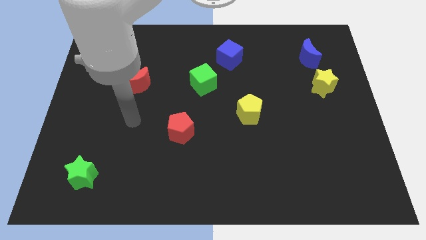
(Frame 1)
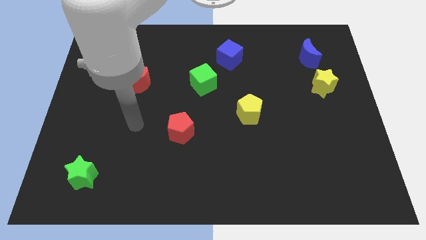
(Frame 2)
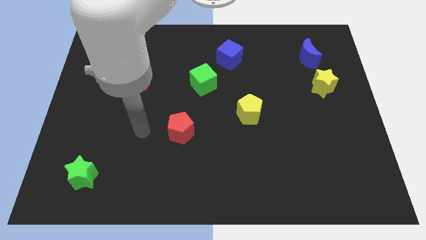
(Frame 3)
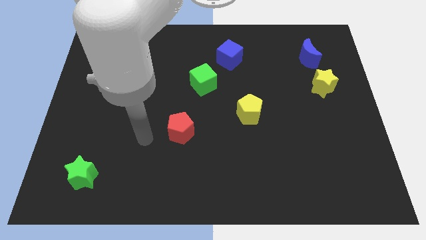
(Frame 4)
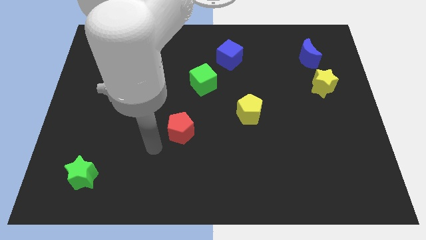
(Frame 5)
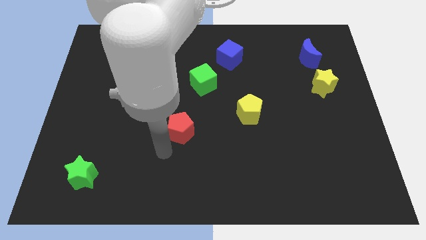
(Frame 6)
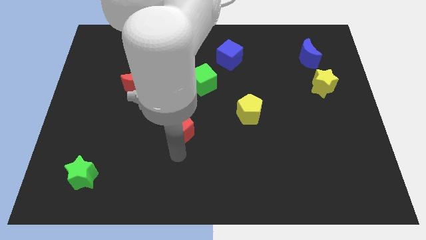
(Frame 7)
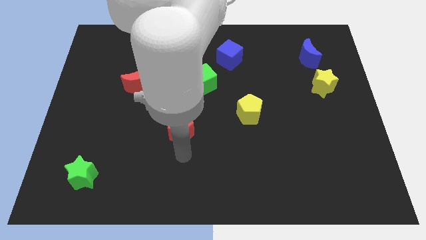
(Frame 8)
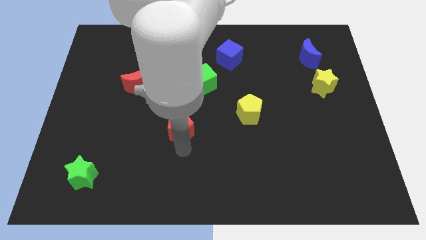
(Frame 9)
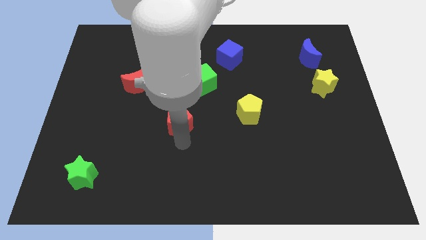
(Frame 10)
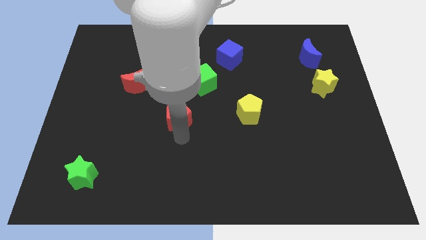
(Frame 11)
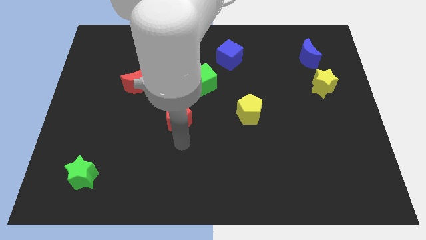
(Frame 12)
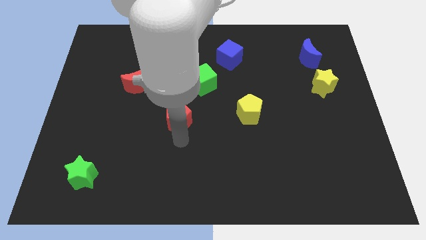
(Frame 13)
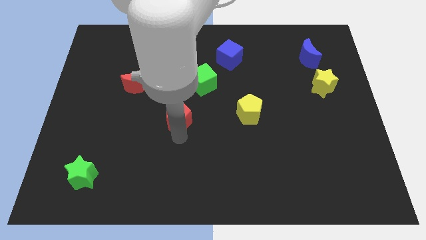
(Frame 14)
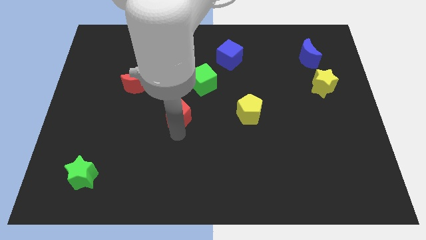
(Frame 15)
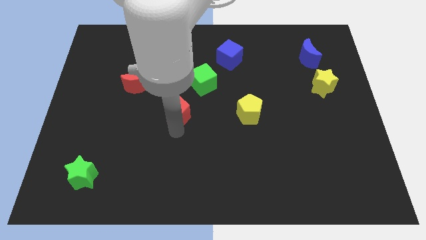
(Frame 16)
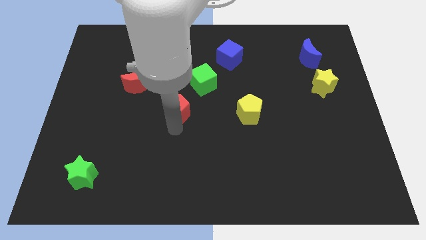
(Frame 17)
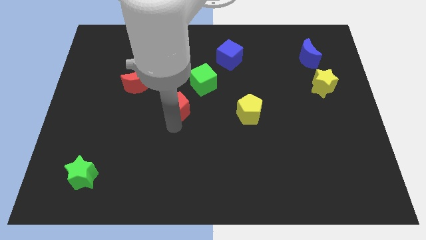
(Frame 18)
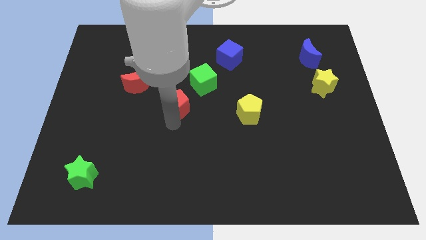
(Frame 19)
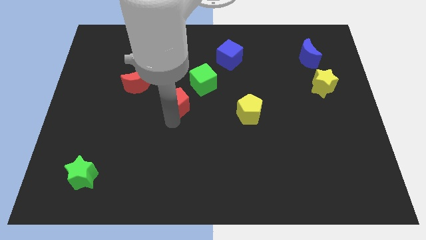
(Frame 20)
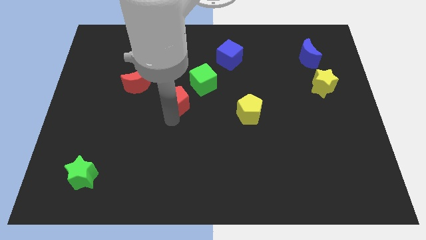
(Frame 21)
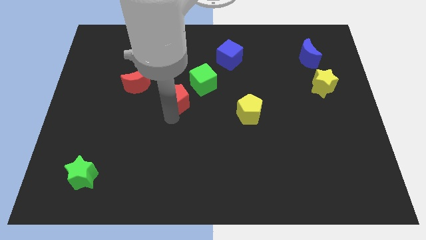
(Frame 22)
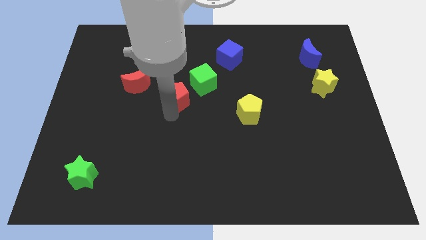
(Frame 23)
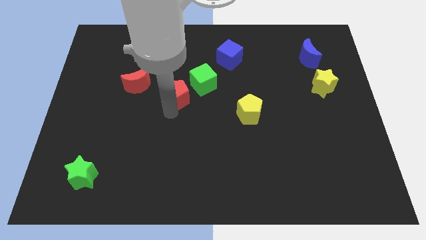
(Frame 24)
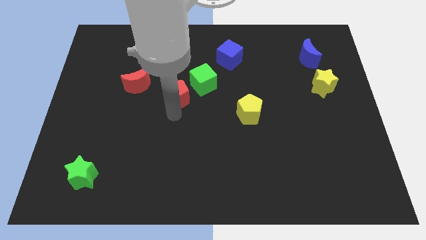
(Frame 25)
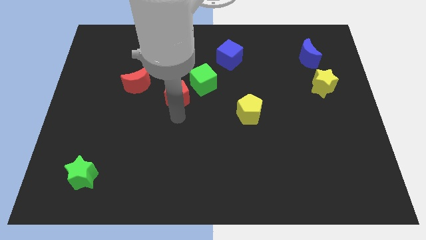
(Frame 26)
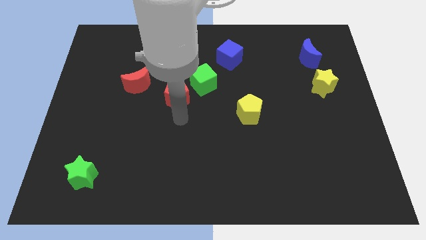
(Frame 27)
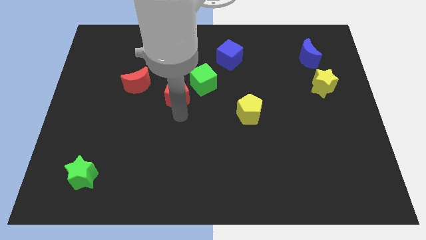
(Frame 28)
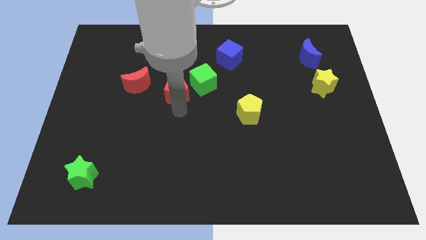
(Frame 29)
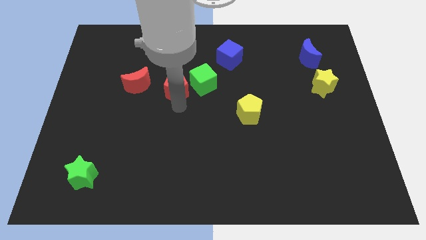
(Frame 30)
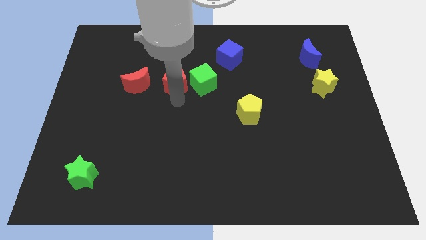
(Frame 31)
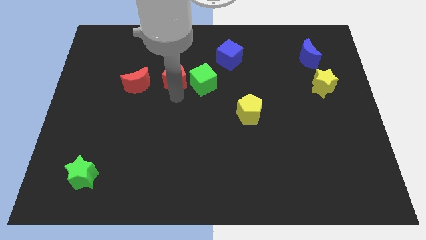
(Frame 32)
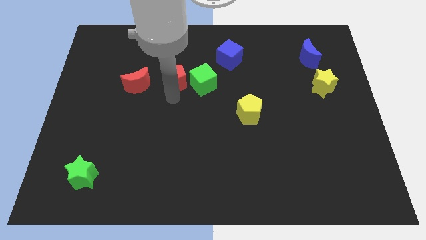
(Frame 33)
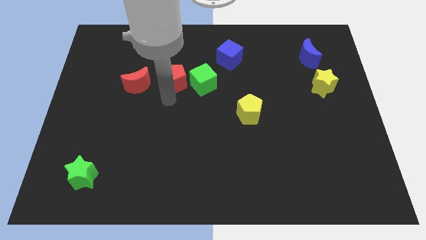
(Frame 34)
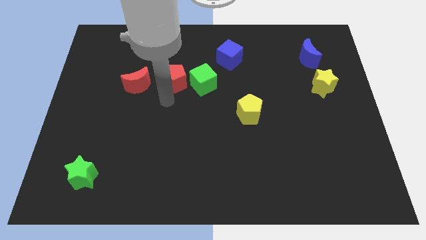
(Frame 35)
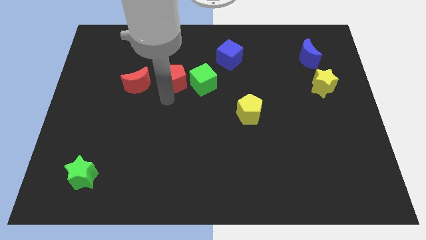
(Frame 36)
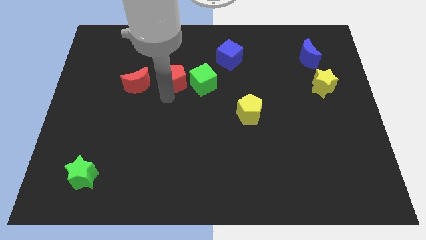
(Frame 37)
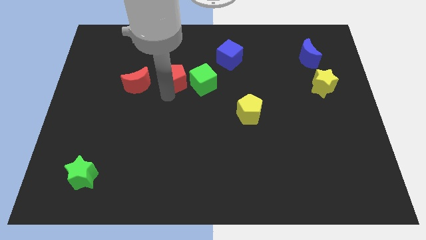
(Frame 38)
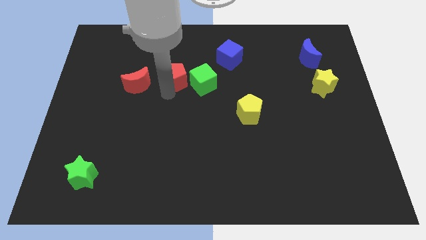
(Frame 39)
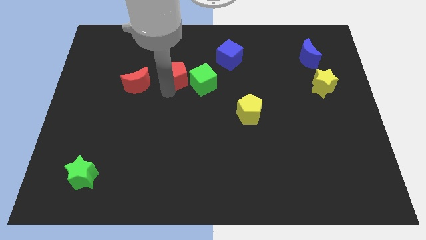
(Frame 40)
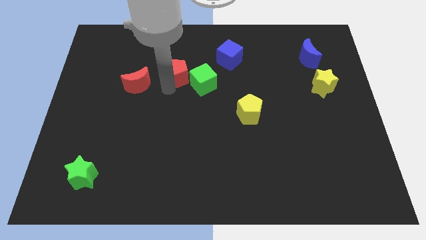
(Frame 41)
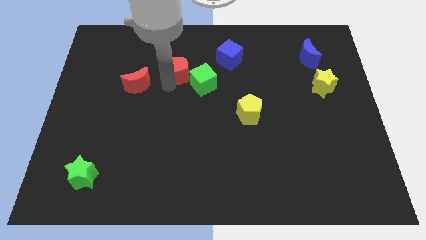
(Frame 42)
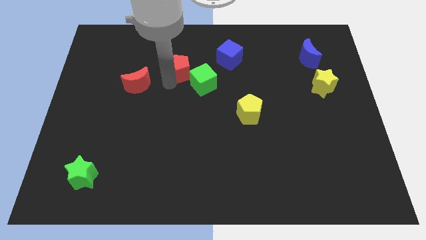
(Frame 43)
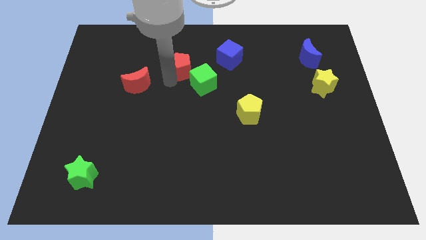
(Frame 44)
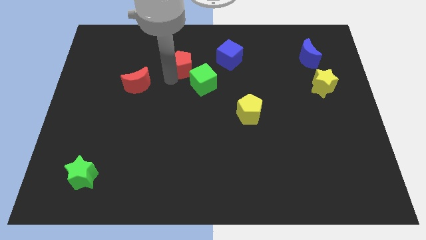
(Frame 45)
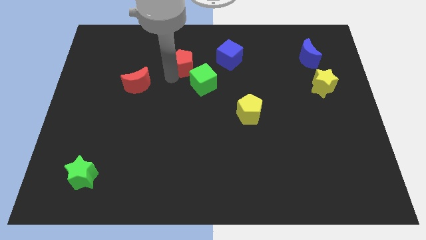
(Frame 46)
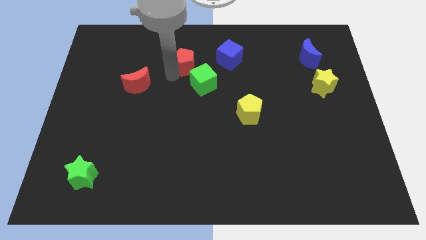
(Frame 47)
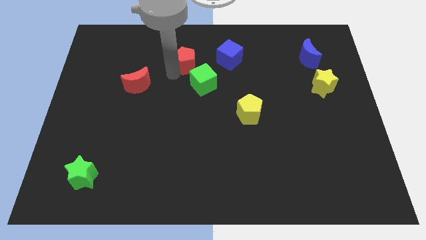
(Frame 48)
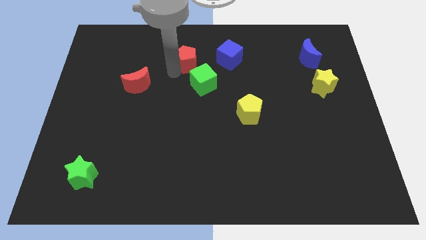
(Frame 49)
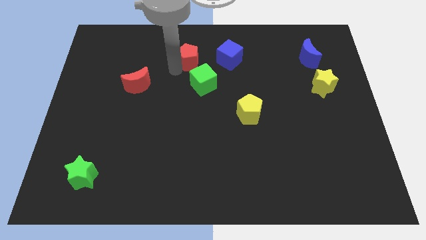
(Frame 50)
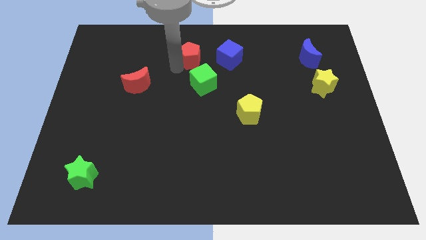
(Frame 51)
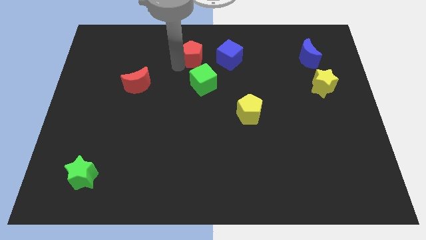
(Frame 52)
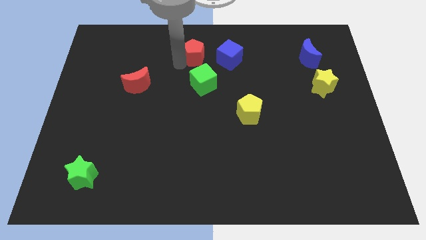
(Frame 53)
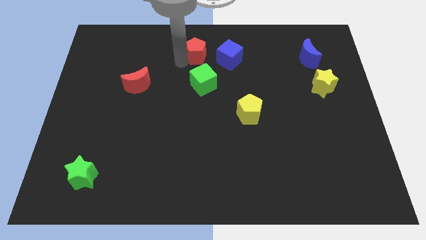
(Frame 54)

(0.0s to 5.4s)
push the red pentagon to the towards your base

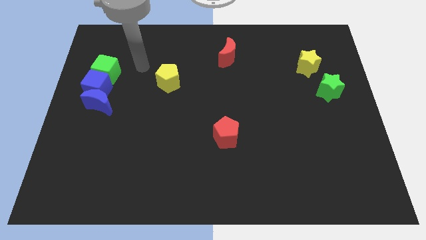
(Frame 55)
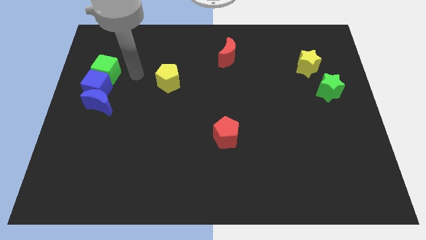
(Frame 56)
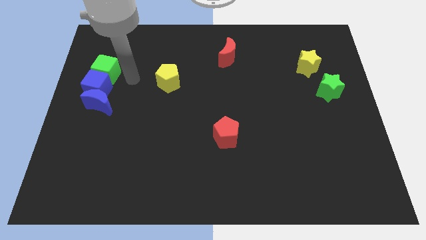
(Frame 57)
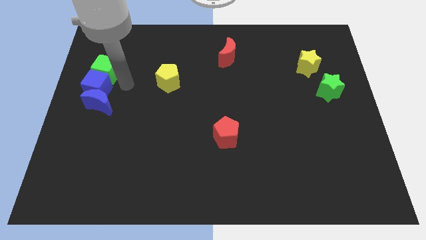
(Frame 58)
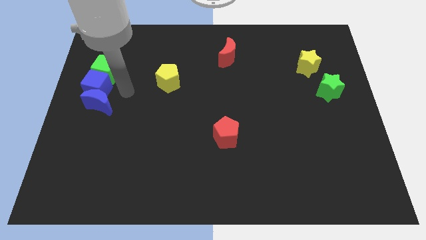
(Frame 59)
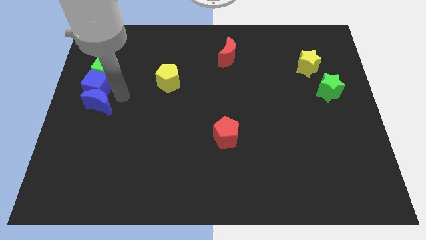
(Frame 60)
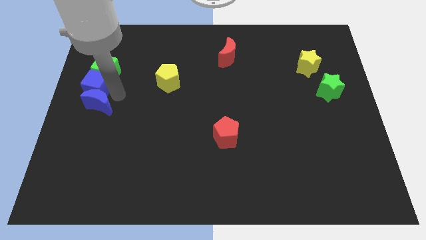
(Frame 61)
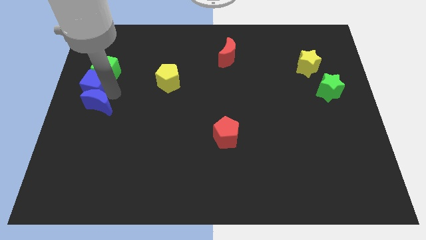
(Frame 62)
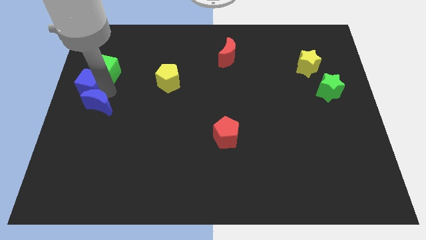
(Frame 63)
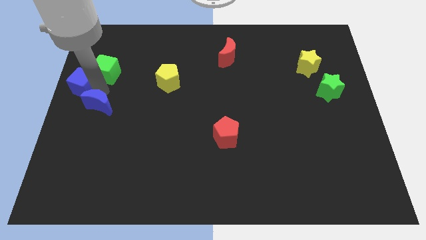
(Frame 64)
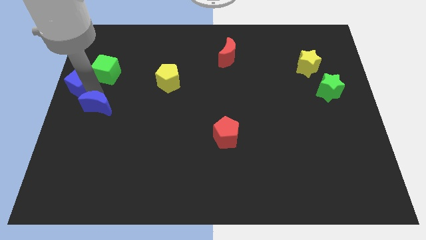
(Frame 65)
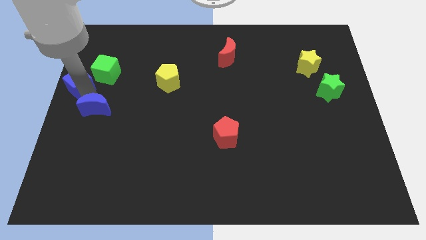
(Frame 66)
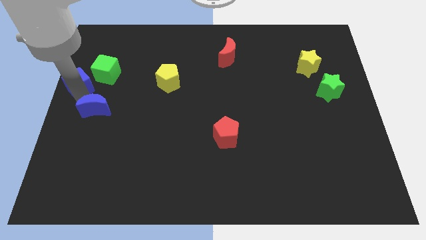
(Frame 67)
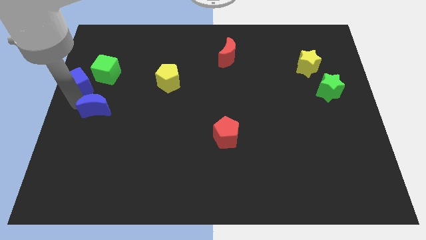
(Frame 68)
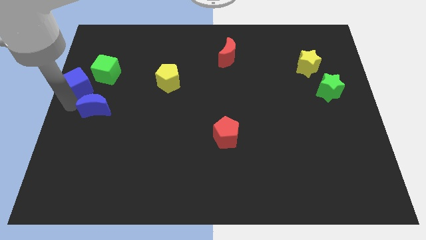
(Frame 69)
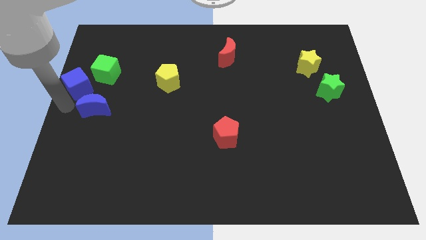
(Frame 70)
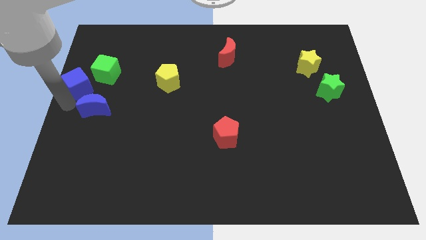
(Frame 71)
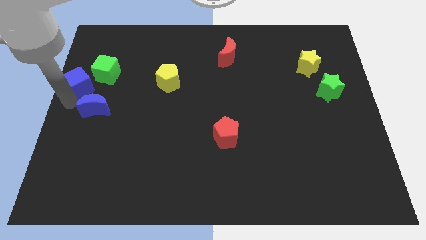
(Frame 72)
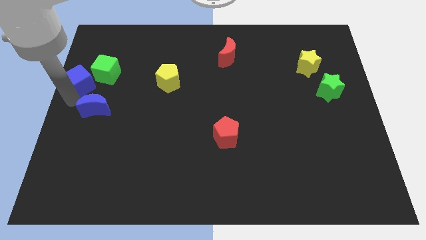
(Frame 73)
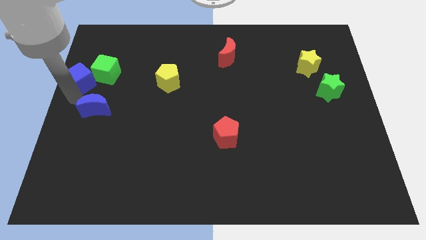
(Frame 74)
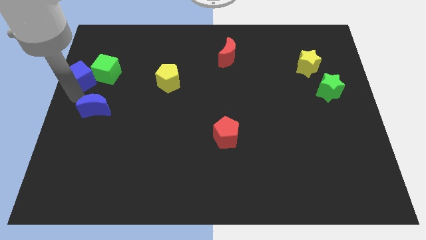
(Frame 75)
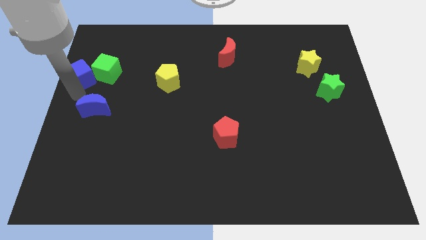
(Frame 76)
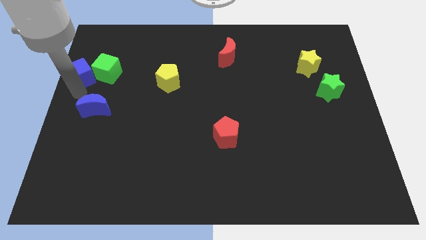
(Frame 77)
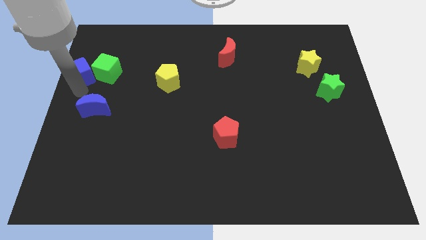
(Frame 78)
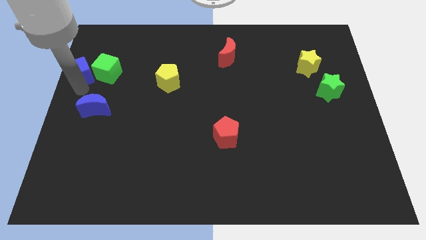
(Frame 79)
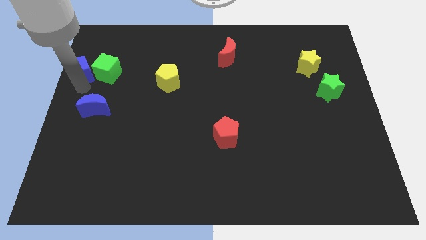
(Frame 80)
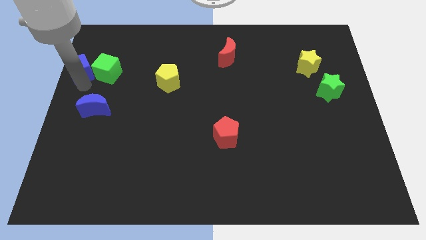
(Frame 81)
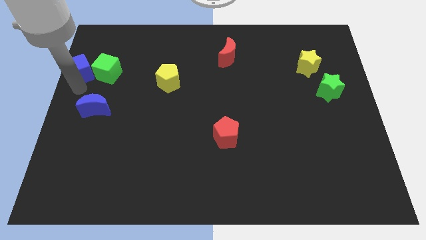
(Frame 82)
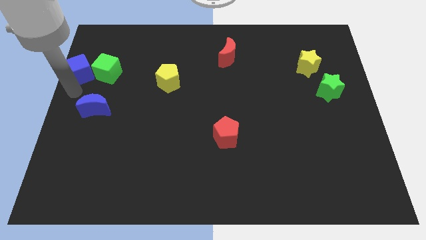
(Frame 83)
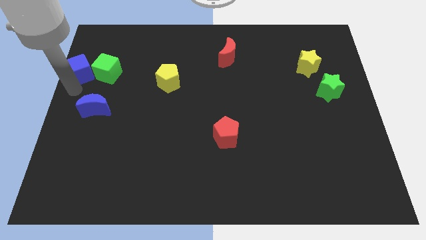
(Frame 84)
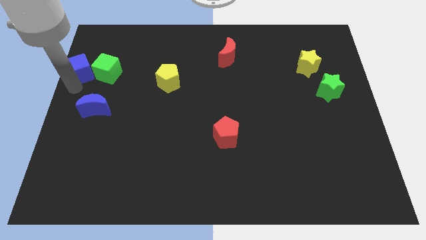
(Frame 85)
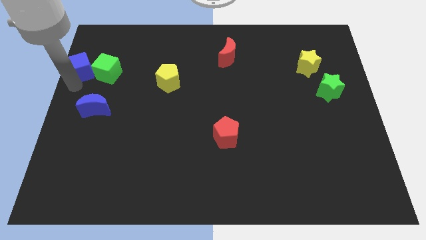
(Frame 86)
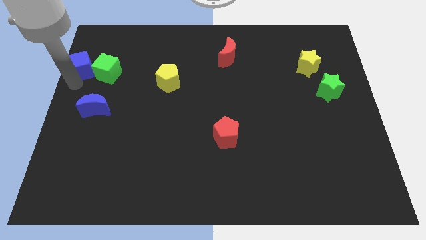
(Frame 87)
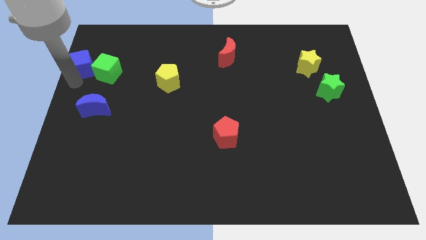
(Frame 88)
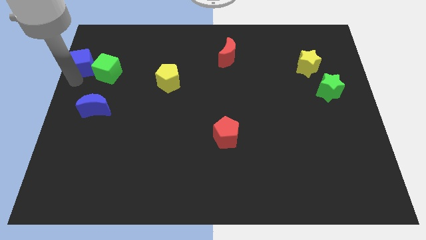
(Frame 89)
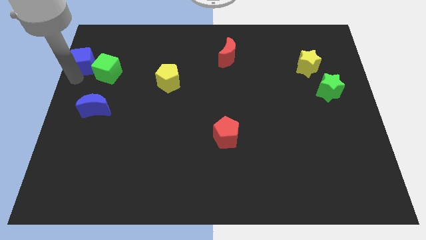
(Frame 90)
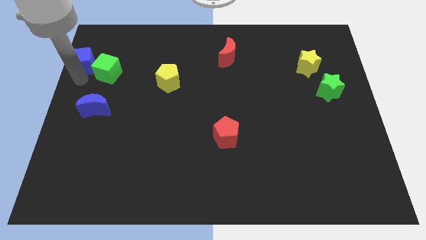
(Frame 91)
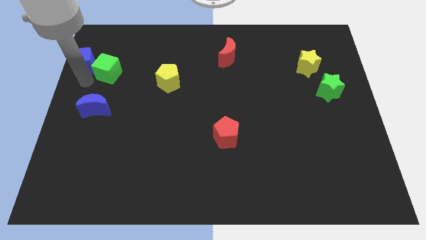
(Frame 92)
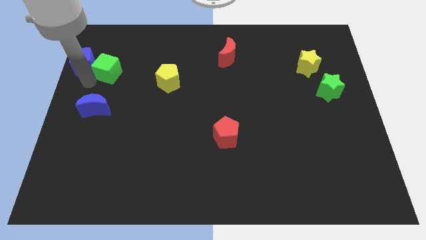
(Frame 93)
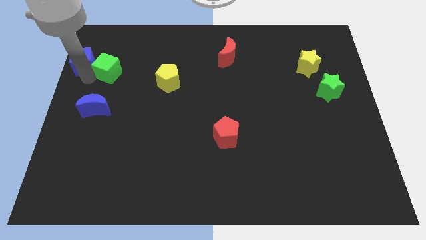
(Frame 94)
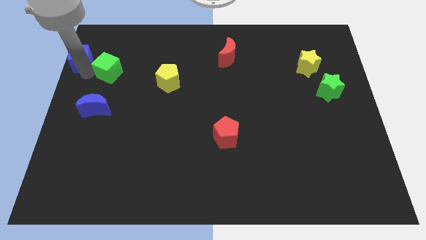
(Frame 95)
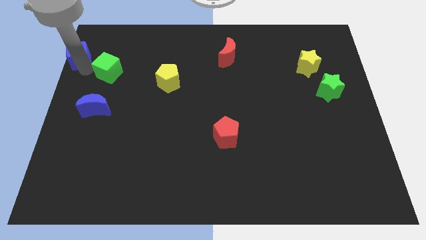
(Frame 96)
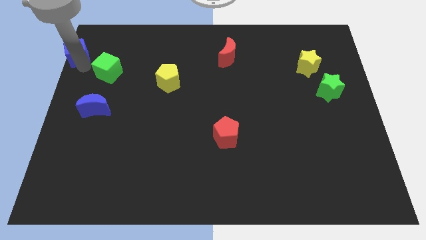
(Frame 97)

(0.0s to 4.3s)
push the blue cube to the top left corner
